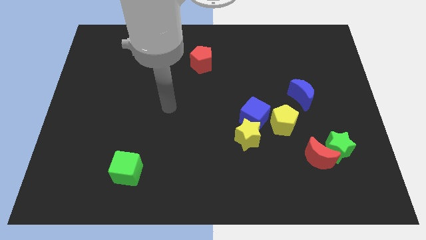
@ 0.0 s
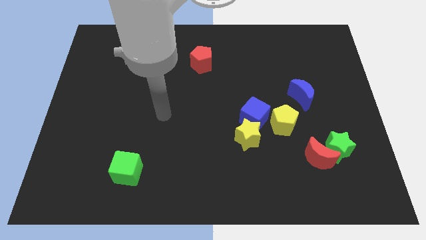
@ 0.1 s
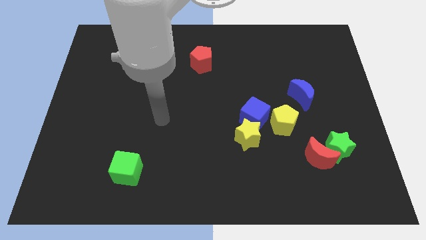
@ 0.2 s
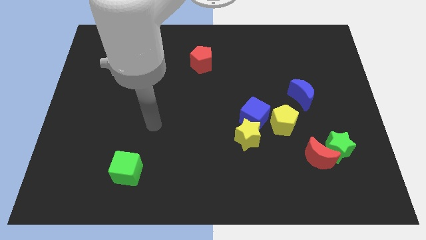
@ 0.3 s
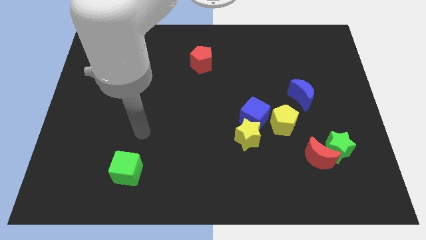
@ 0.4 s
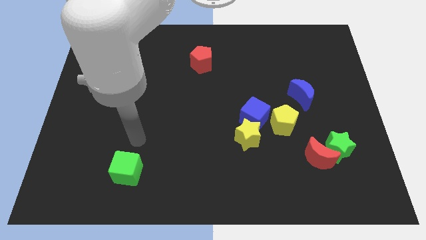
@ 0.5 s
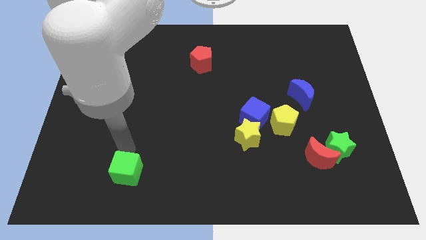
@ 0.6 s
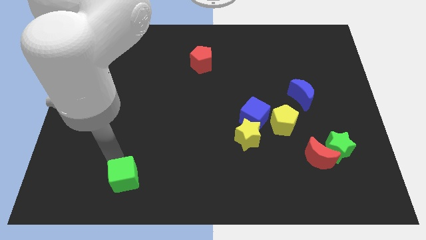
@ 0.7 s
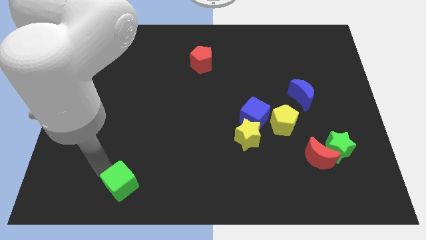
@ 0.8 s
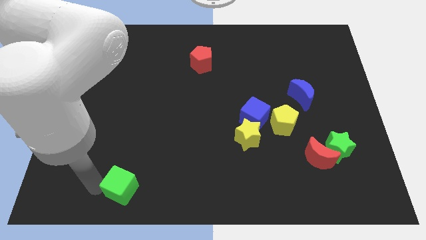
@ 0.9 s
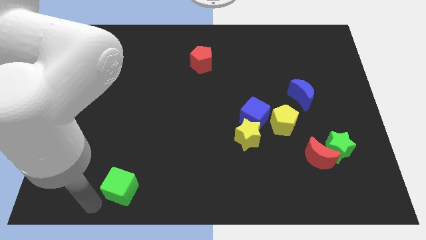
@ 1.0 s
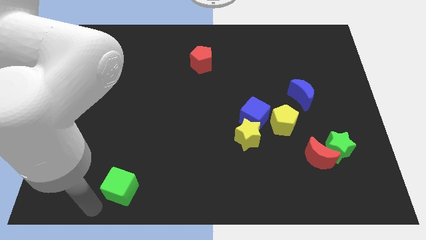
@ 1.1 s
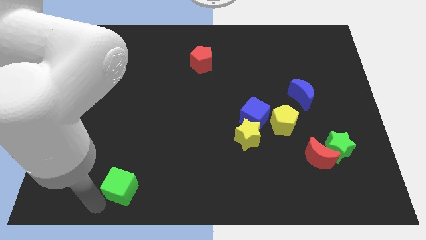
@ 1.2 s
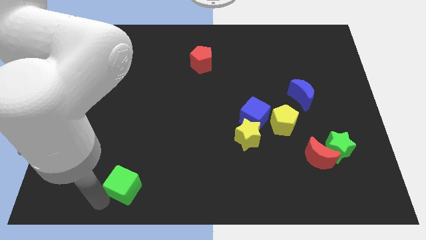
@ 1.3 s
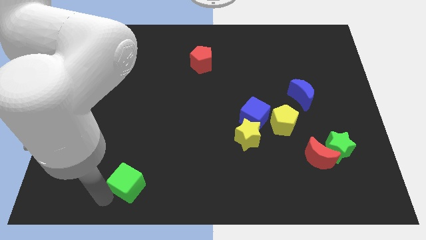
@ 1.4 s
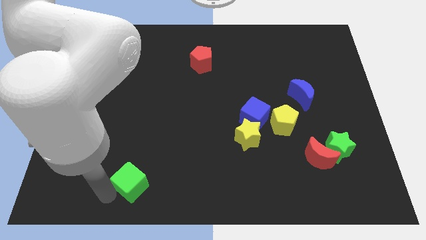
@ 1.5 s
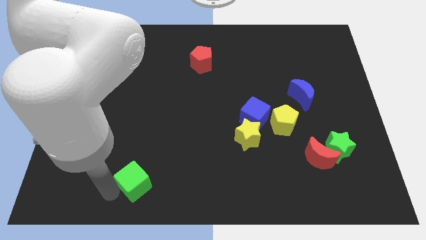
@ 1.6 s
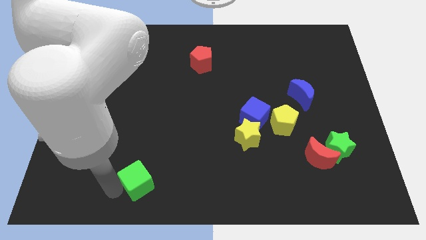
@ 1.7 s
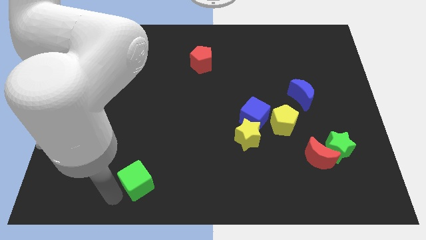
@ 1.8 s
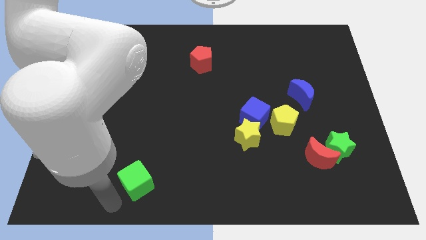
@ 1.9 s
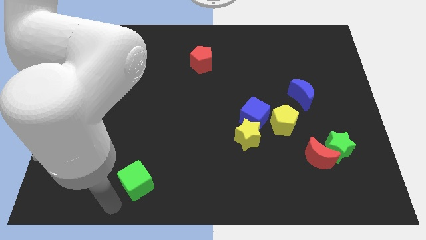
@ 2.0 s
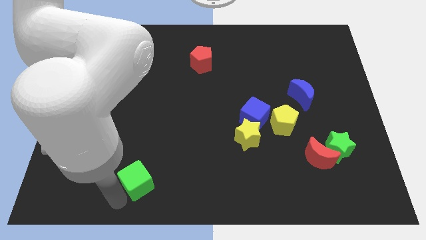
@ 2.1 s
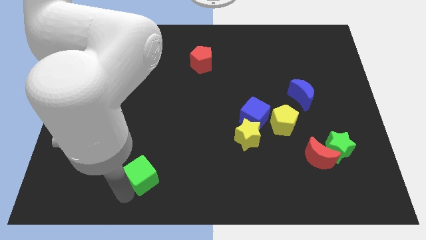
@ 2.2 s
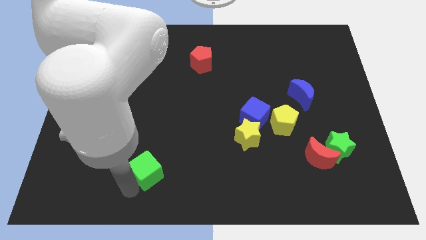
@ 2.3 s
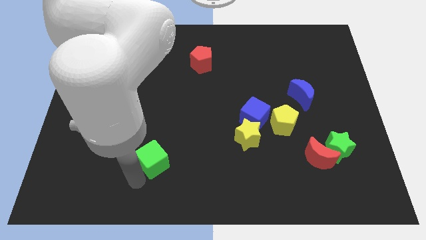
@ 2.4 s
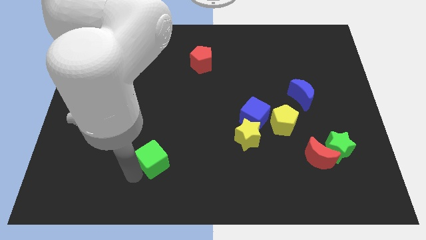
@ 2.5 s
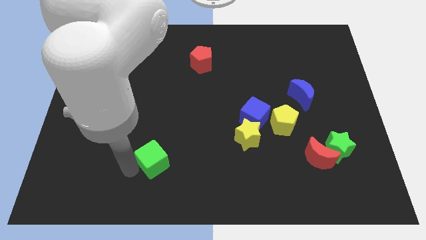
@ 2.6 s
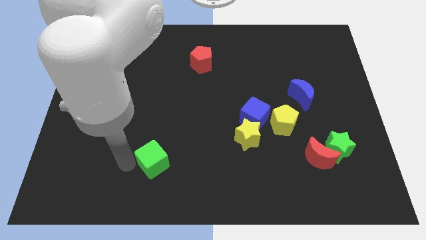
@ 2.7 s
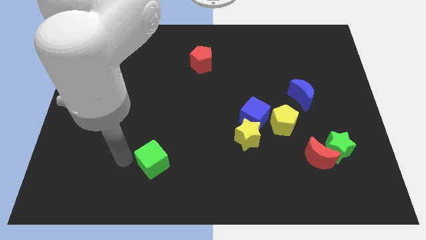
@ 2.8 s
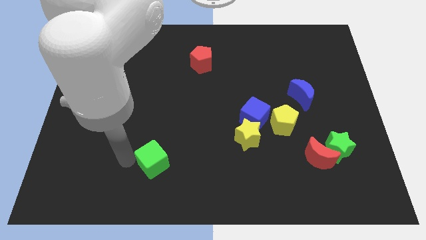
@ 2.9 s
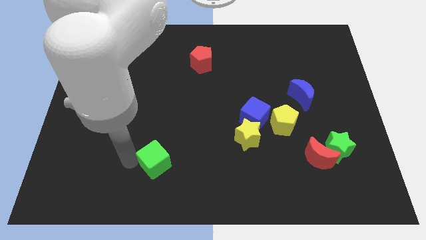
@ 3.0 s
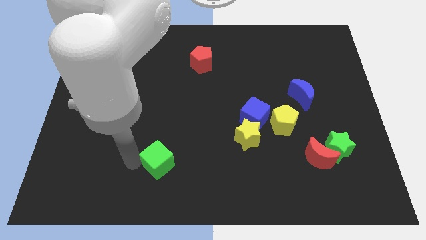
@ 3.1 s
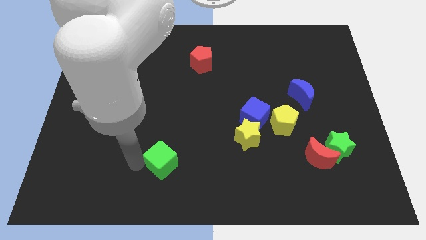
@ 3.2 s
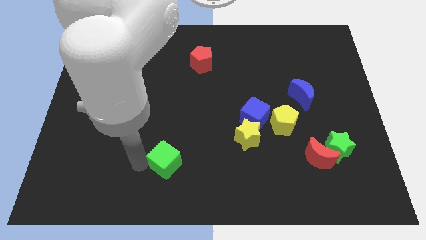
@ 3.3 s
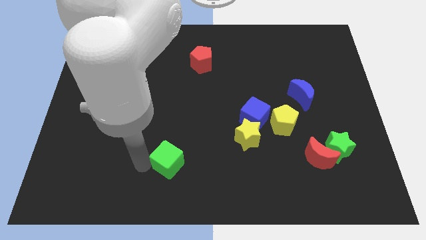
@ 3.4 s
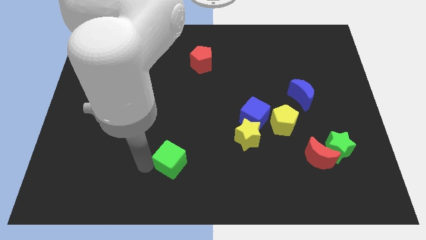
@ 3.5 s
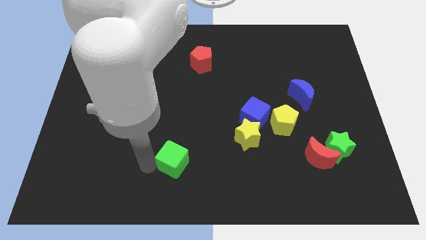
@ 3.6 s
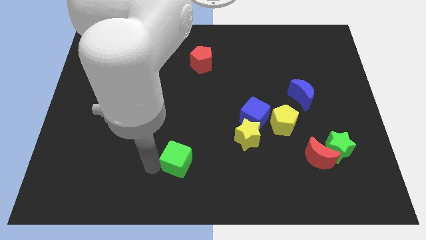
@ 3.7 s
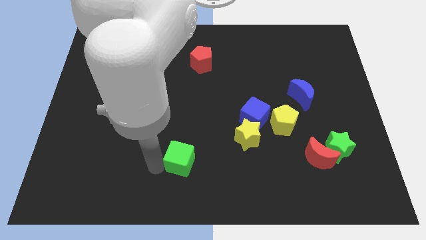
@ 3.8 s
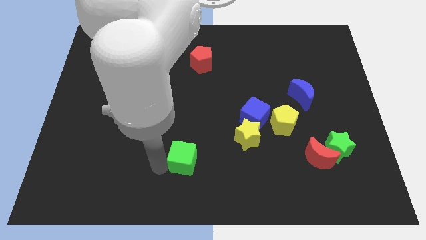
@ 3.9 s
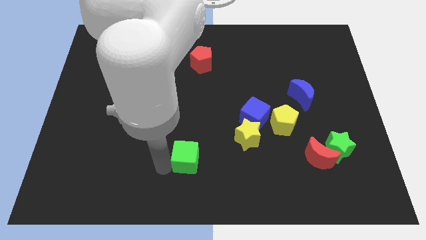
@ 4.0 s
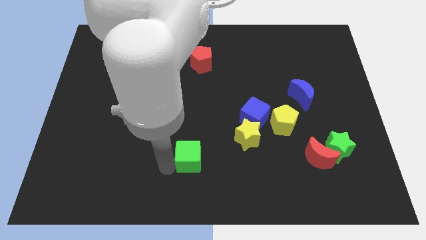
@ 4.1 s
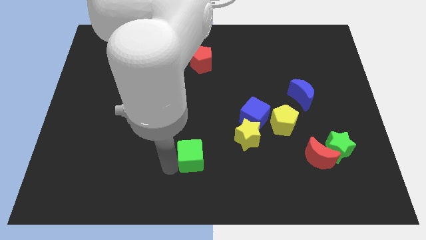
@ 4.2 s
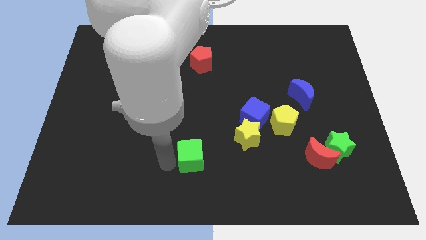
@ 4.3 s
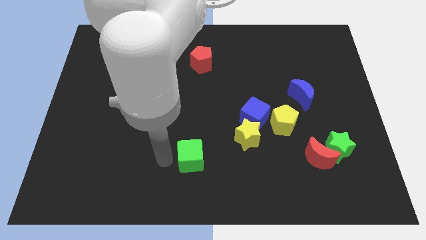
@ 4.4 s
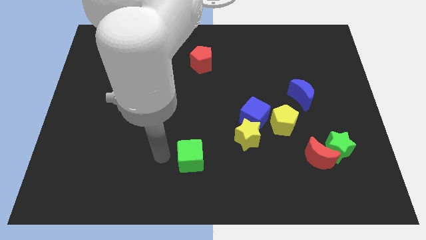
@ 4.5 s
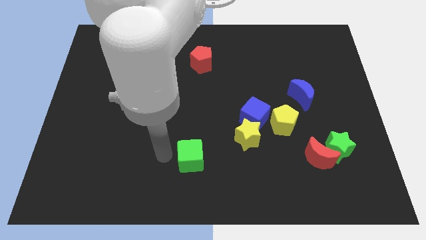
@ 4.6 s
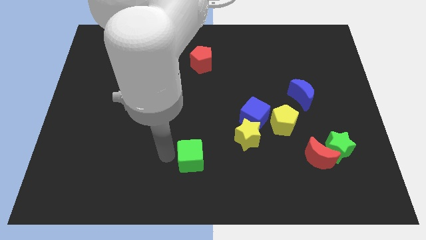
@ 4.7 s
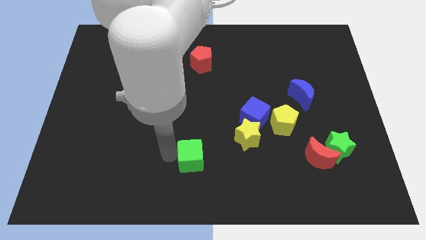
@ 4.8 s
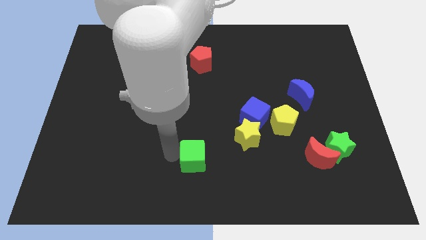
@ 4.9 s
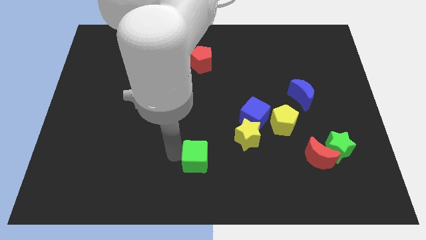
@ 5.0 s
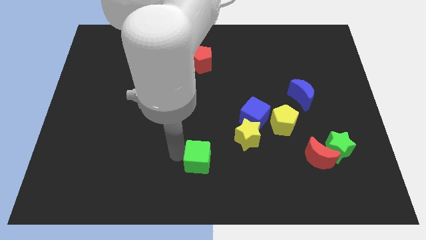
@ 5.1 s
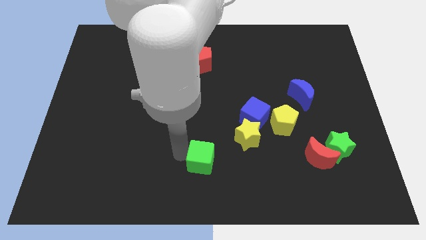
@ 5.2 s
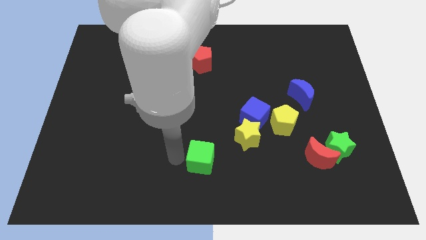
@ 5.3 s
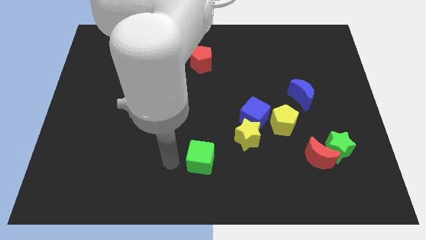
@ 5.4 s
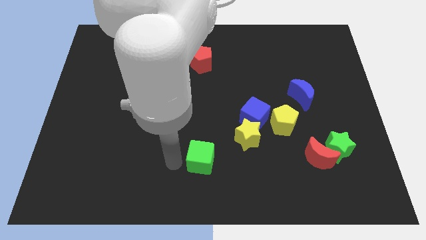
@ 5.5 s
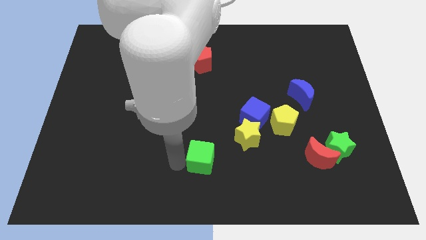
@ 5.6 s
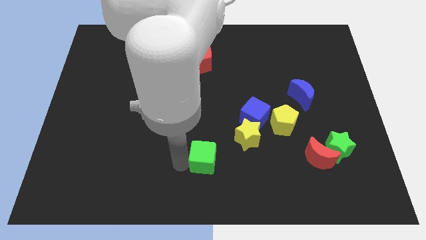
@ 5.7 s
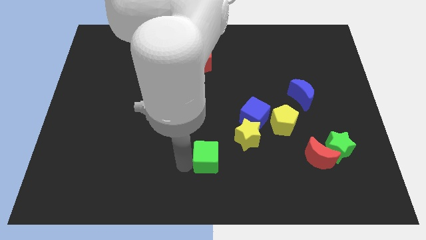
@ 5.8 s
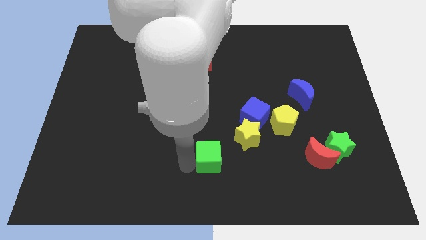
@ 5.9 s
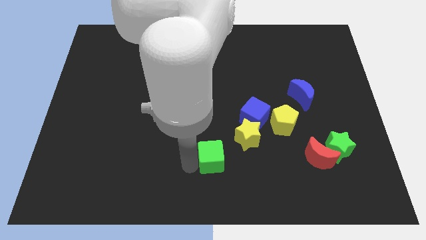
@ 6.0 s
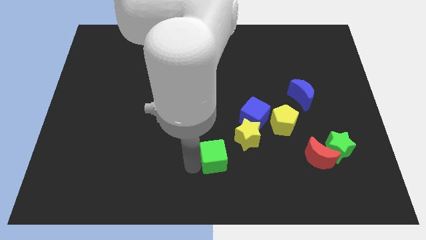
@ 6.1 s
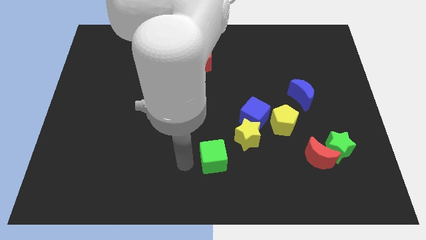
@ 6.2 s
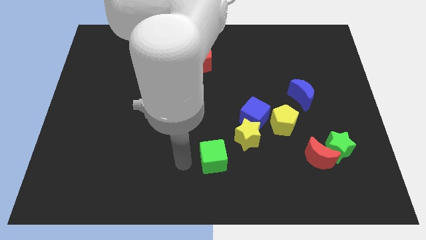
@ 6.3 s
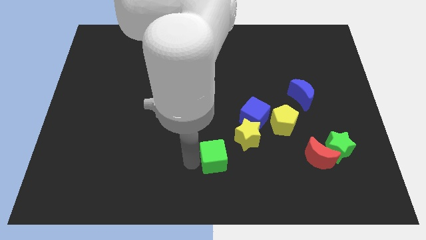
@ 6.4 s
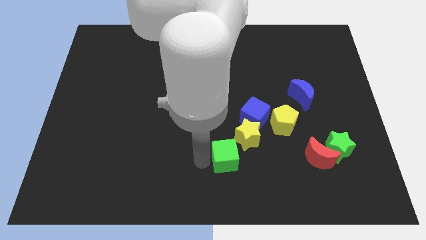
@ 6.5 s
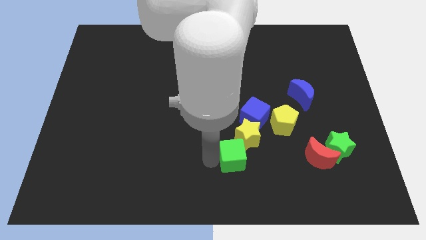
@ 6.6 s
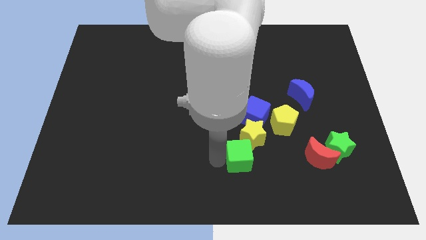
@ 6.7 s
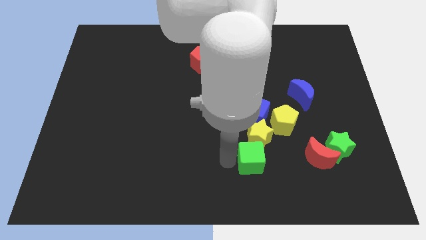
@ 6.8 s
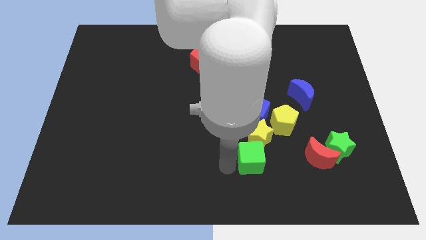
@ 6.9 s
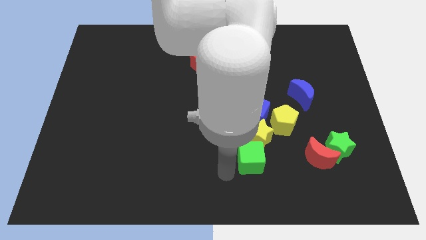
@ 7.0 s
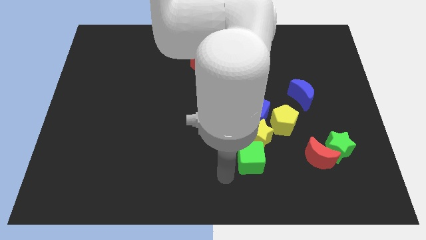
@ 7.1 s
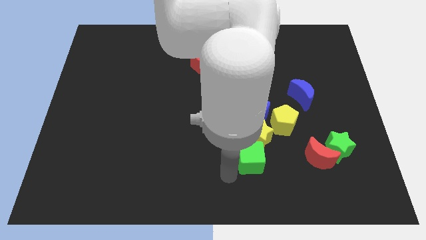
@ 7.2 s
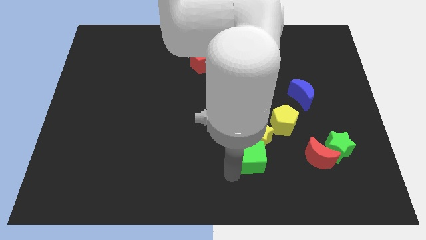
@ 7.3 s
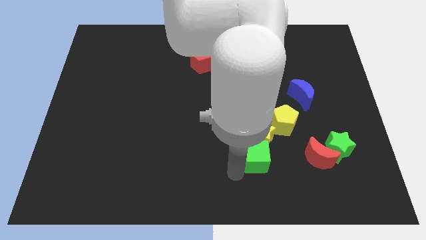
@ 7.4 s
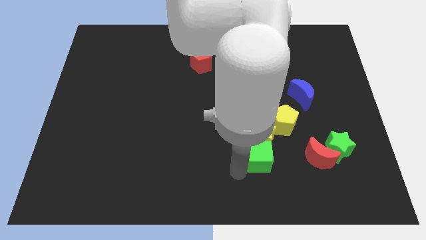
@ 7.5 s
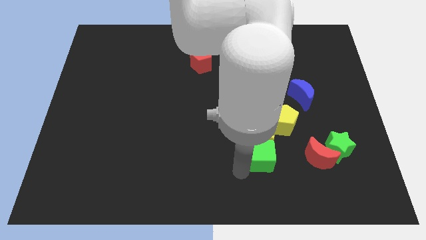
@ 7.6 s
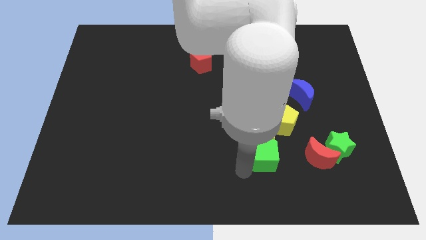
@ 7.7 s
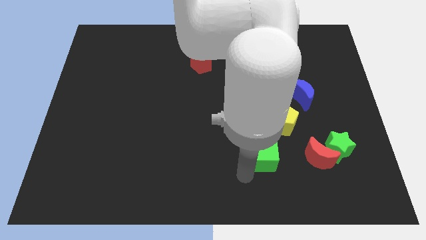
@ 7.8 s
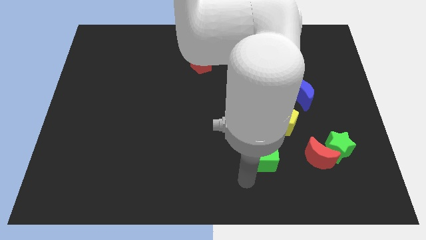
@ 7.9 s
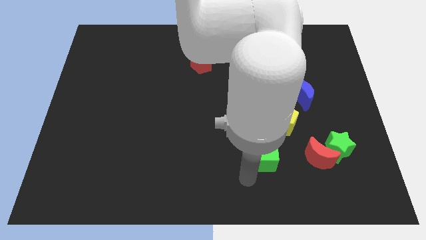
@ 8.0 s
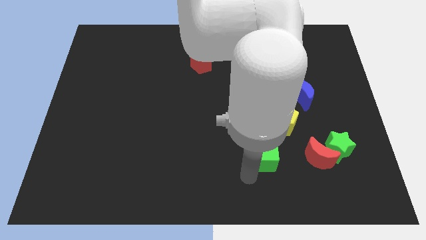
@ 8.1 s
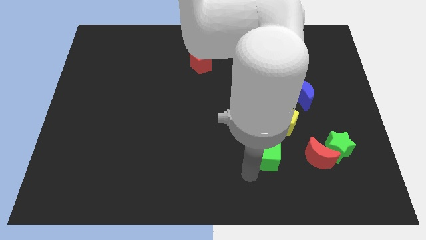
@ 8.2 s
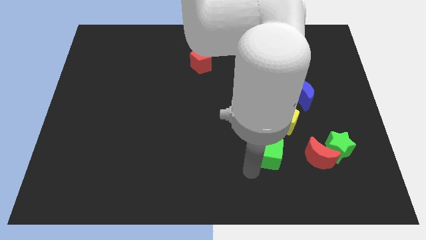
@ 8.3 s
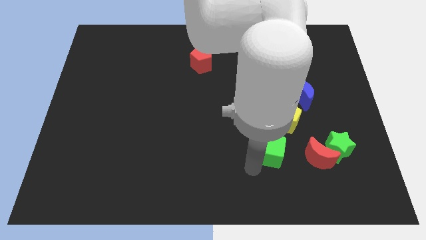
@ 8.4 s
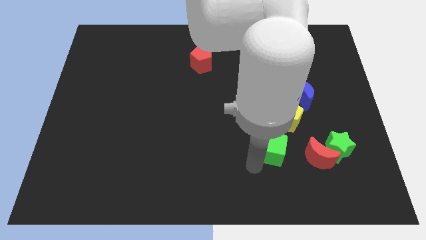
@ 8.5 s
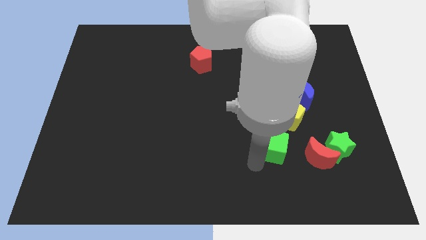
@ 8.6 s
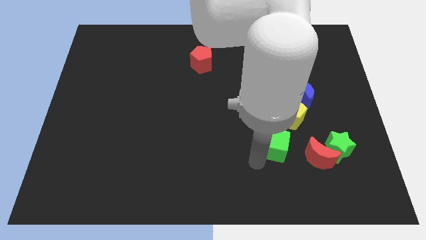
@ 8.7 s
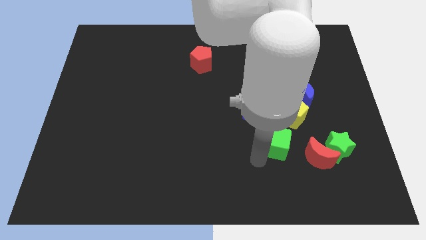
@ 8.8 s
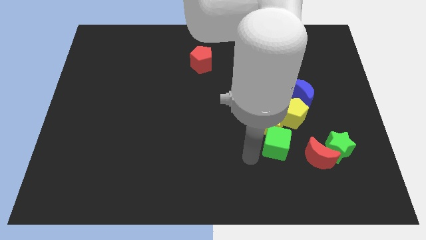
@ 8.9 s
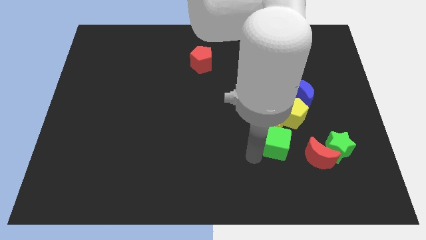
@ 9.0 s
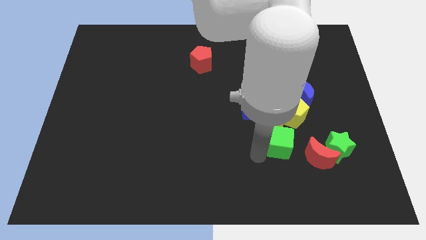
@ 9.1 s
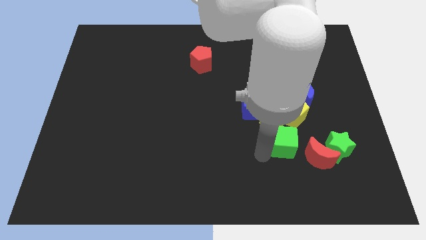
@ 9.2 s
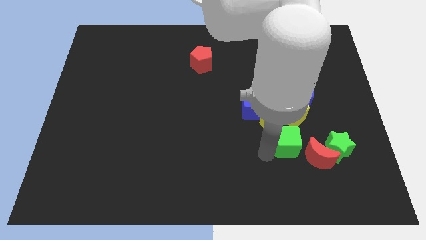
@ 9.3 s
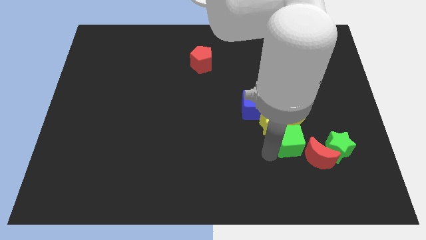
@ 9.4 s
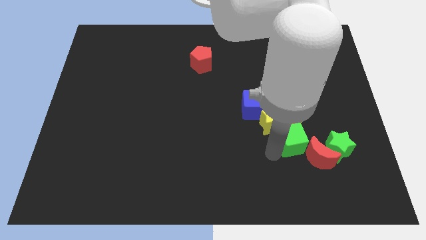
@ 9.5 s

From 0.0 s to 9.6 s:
slide the green cube below the blue moon
